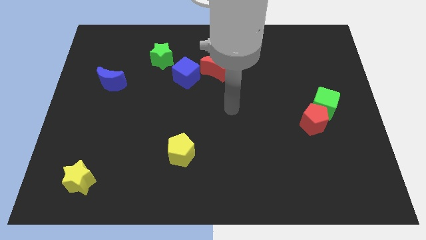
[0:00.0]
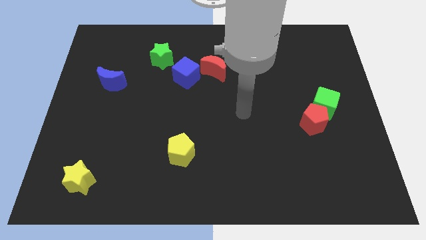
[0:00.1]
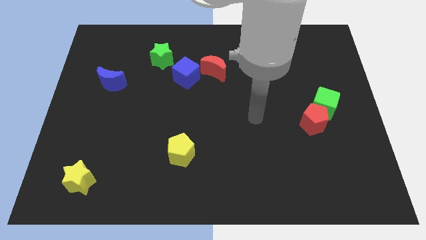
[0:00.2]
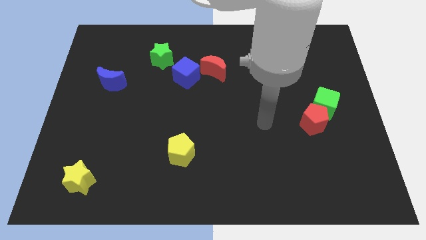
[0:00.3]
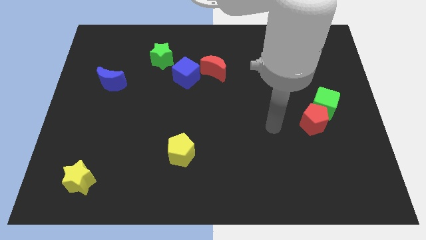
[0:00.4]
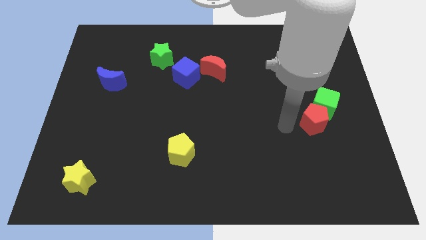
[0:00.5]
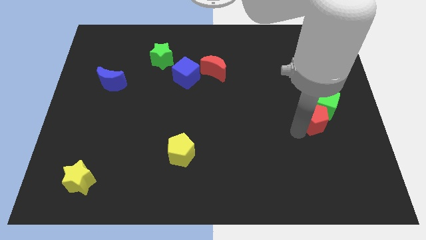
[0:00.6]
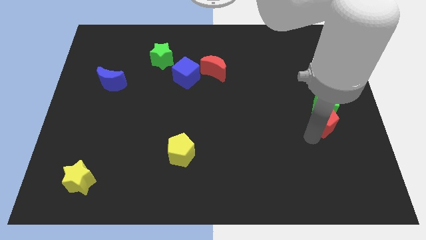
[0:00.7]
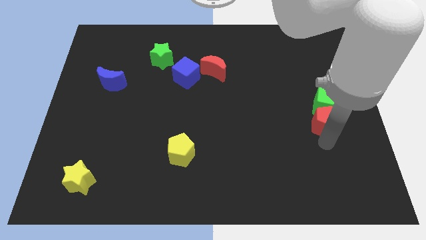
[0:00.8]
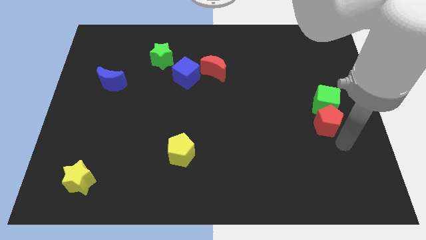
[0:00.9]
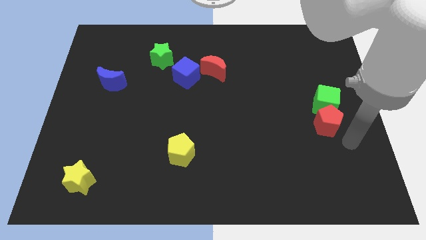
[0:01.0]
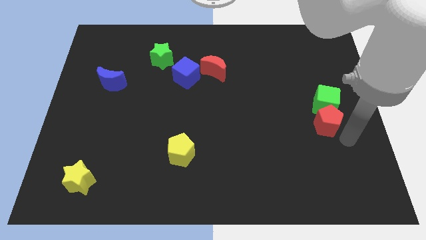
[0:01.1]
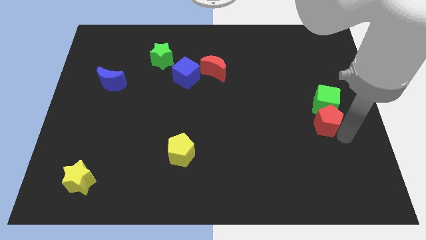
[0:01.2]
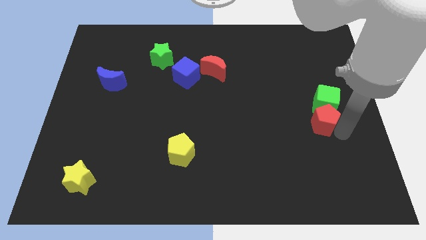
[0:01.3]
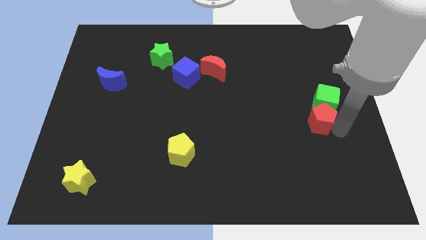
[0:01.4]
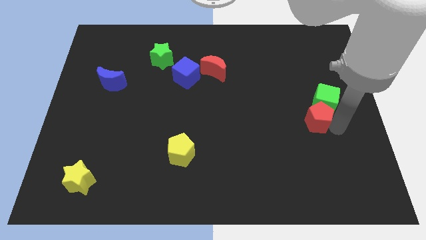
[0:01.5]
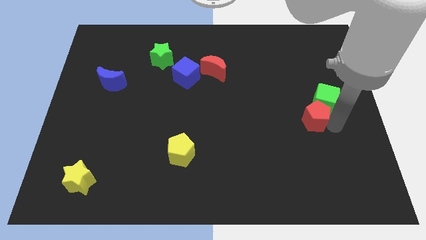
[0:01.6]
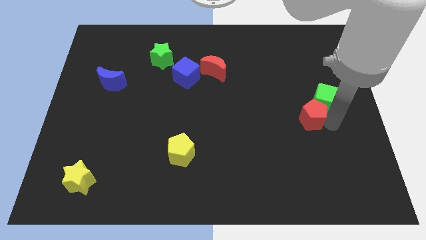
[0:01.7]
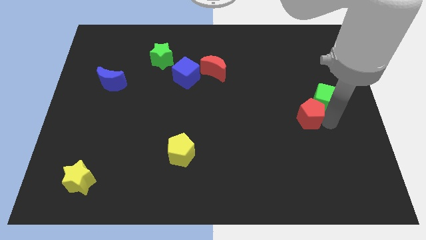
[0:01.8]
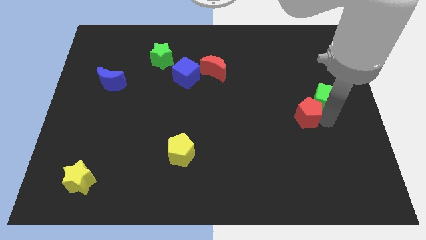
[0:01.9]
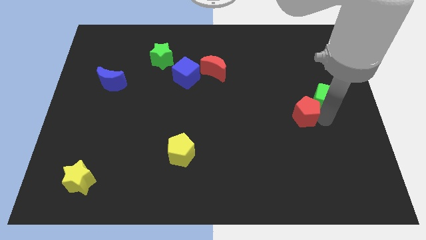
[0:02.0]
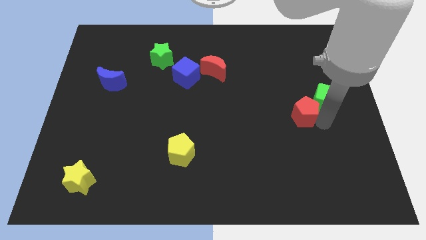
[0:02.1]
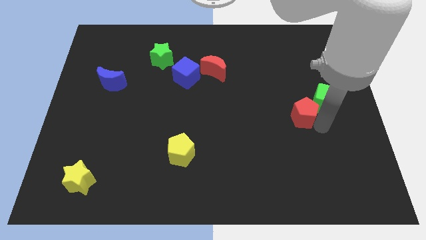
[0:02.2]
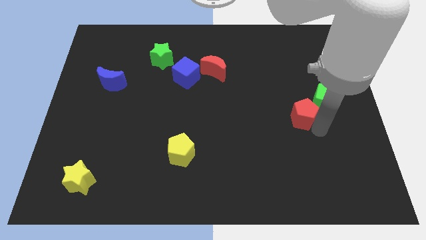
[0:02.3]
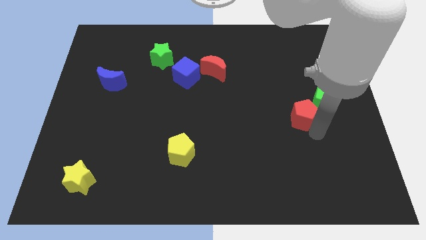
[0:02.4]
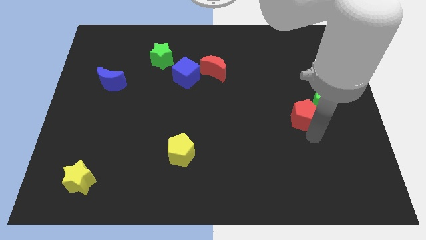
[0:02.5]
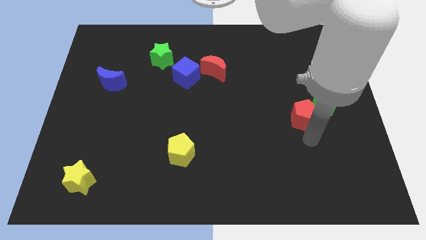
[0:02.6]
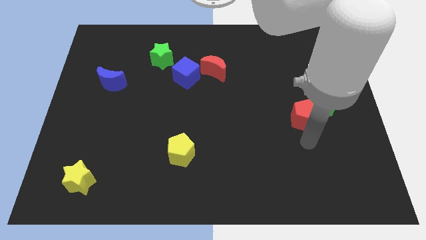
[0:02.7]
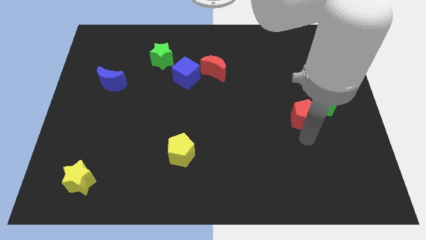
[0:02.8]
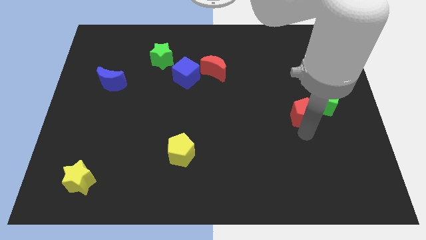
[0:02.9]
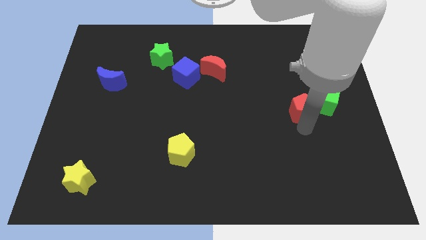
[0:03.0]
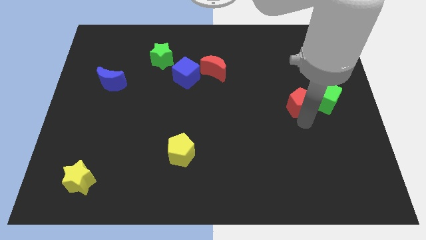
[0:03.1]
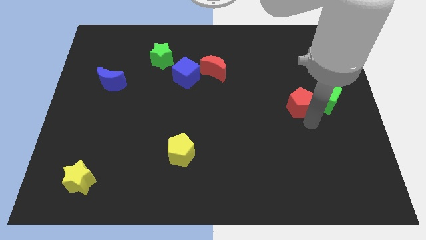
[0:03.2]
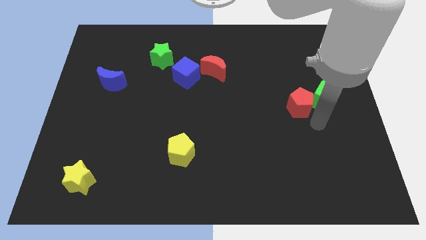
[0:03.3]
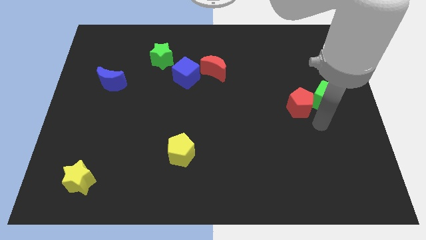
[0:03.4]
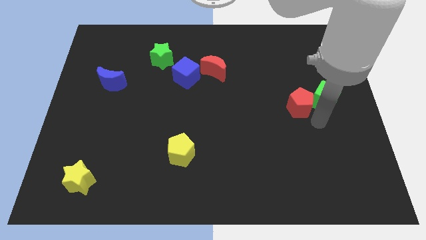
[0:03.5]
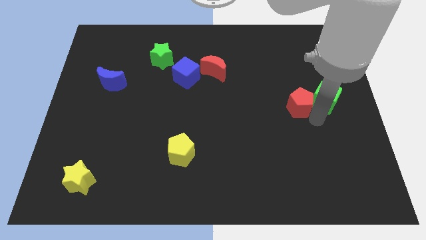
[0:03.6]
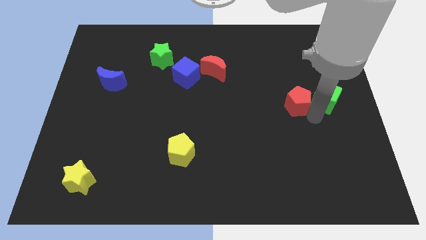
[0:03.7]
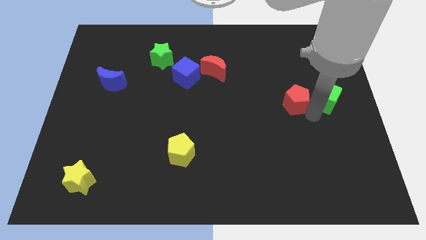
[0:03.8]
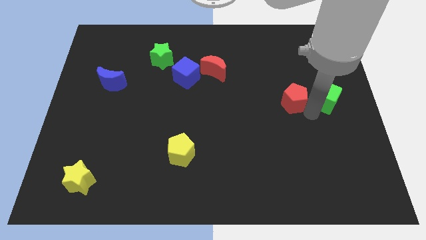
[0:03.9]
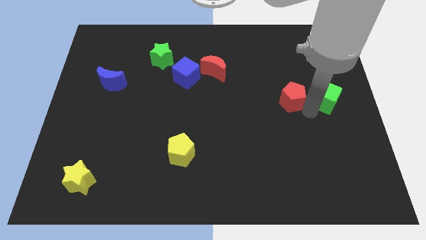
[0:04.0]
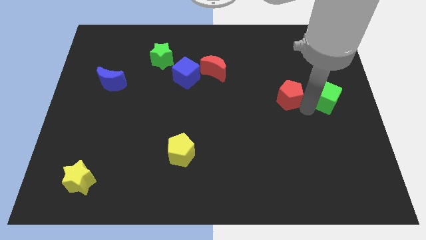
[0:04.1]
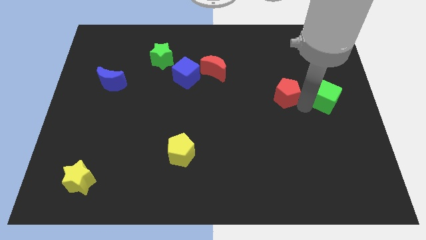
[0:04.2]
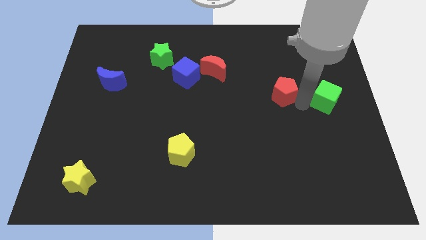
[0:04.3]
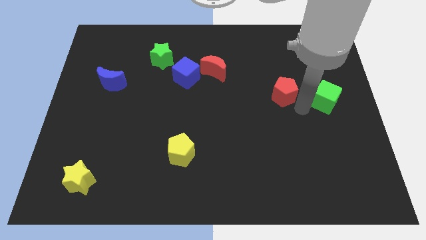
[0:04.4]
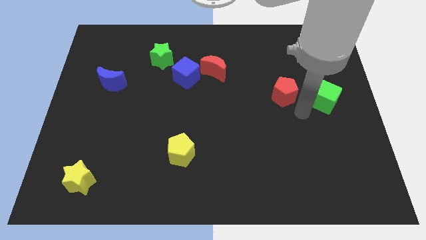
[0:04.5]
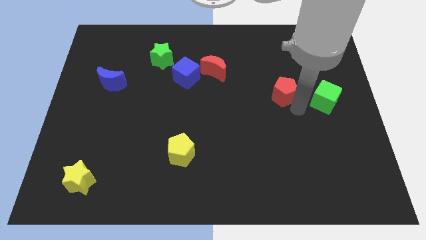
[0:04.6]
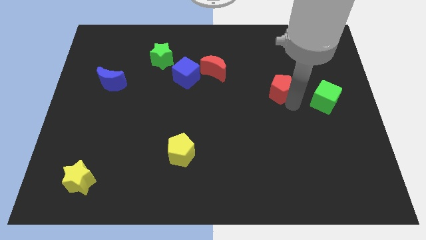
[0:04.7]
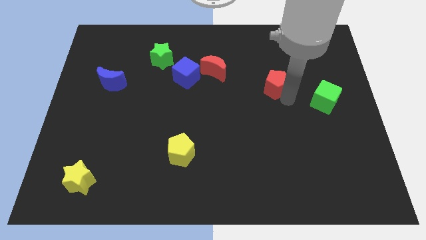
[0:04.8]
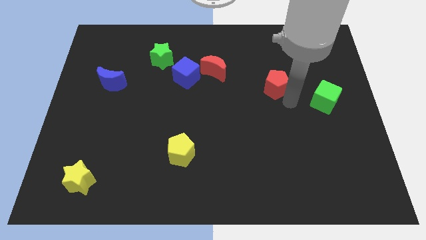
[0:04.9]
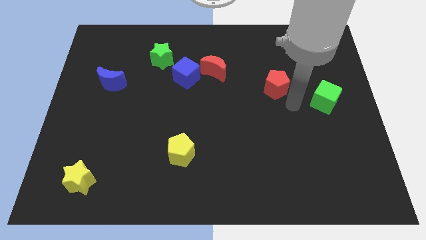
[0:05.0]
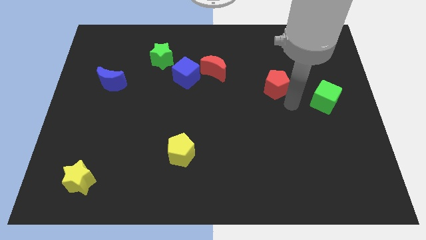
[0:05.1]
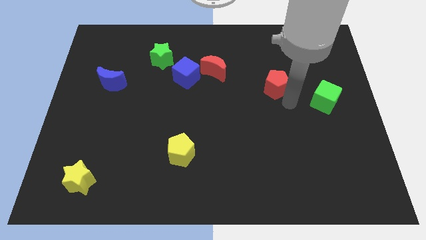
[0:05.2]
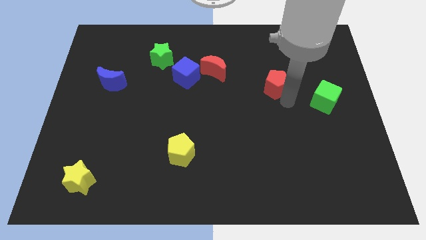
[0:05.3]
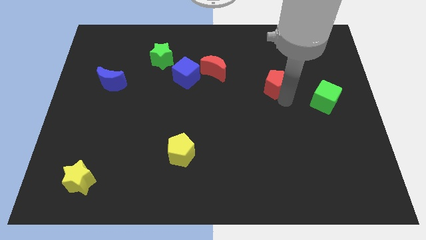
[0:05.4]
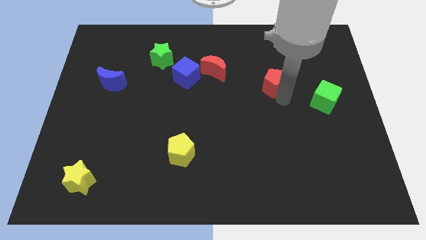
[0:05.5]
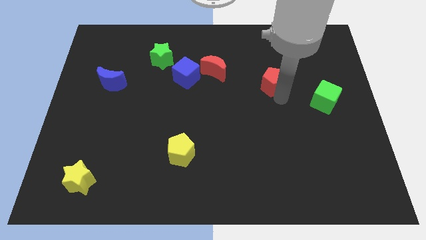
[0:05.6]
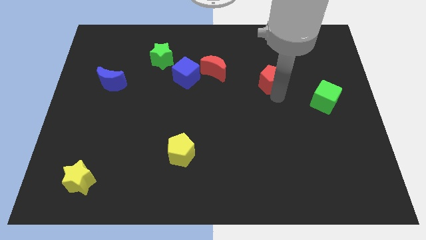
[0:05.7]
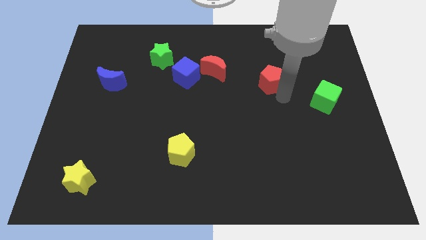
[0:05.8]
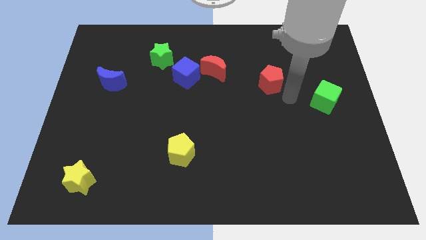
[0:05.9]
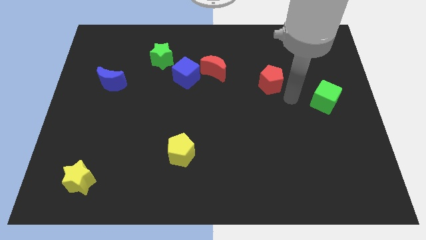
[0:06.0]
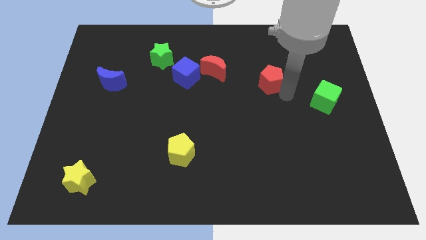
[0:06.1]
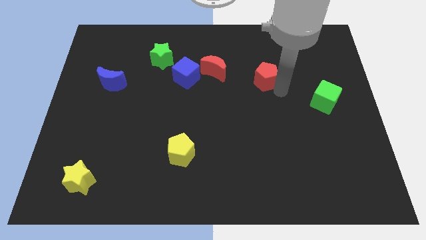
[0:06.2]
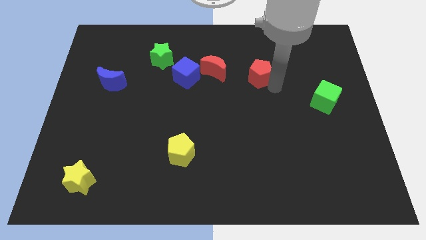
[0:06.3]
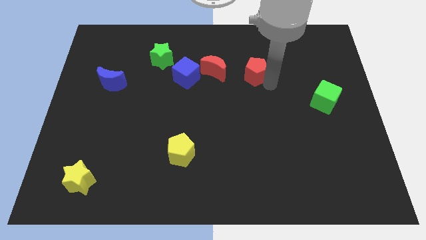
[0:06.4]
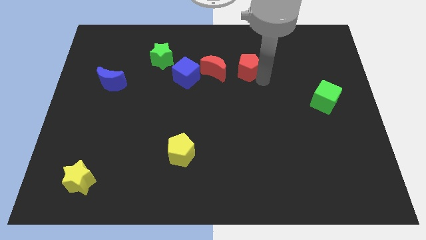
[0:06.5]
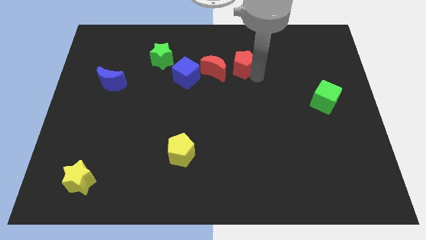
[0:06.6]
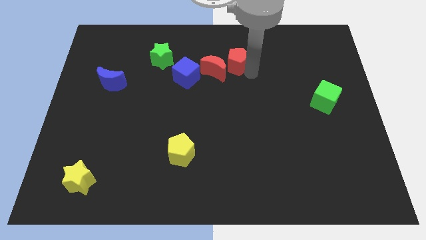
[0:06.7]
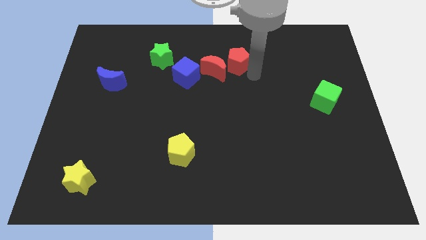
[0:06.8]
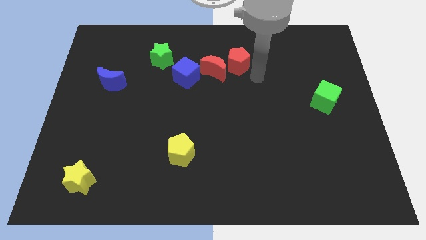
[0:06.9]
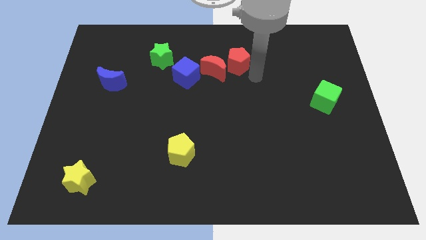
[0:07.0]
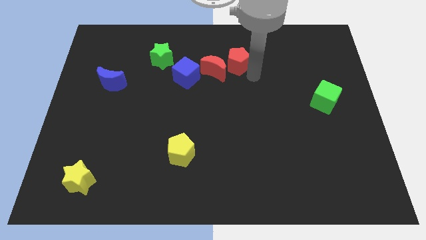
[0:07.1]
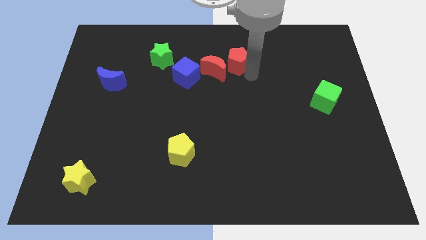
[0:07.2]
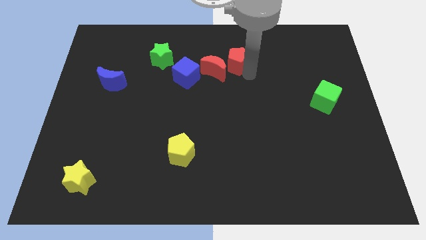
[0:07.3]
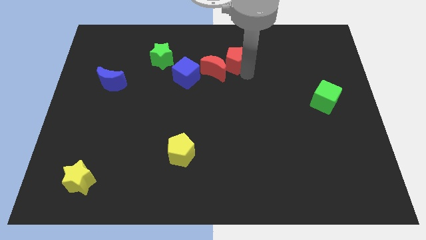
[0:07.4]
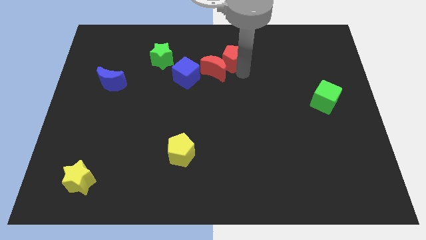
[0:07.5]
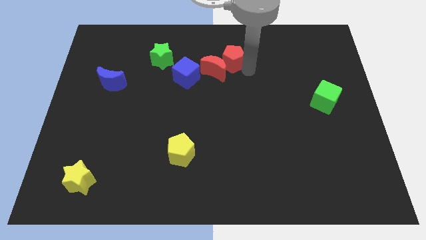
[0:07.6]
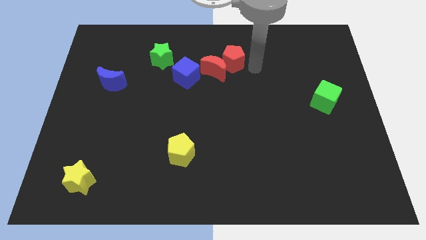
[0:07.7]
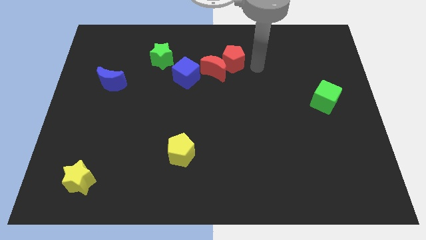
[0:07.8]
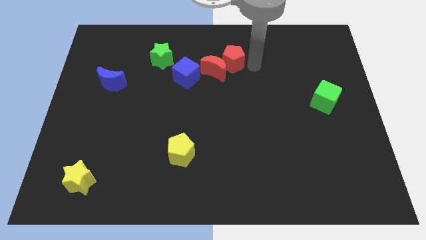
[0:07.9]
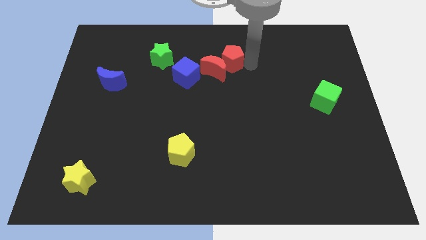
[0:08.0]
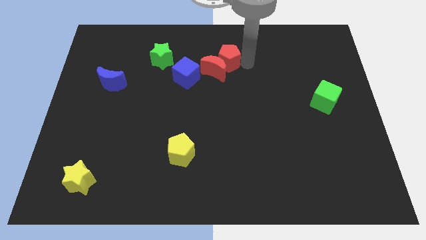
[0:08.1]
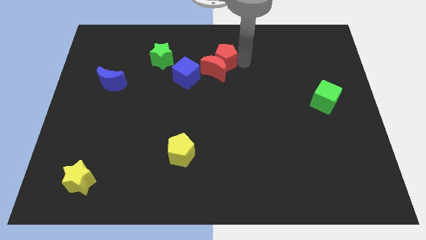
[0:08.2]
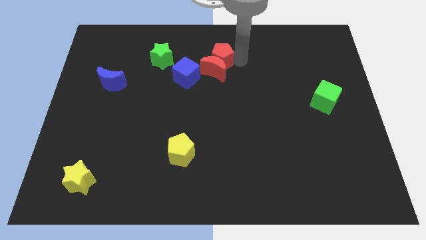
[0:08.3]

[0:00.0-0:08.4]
move the red pentagon to the top left of the red moon

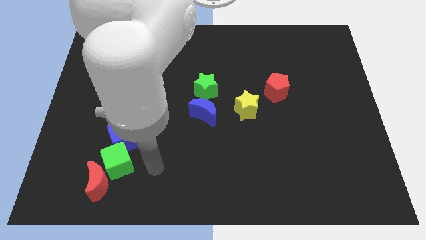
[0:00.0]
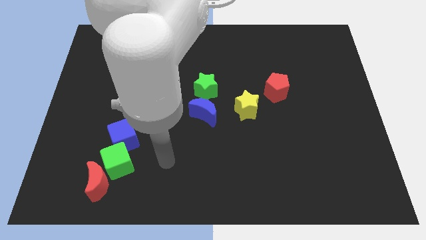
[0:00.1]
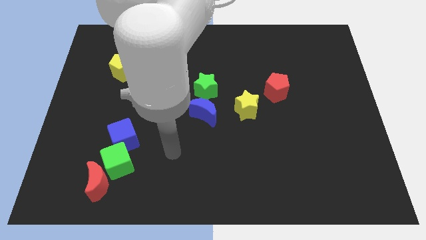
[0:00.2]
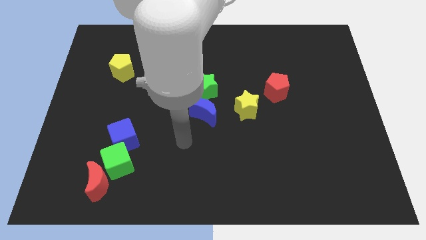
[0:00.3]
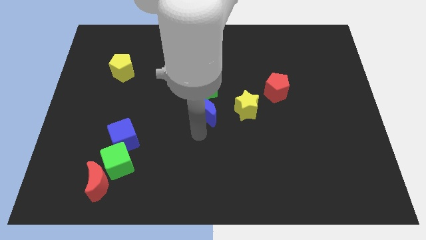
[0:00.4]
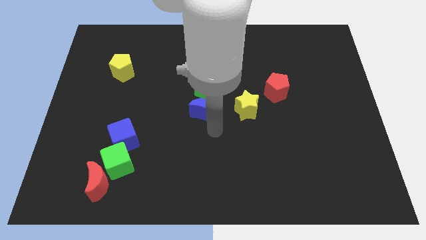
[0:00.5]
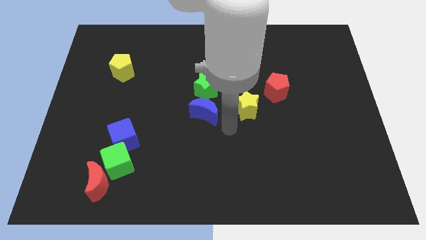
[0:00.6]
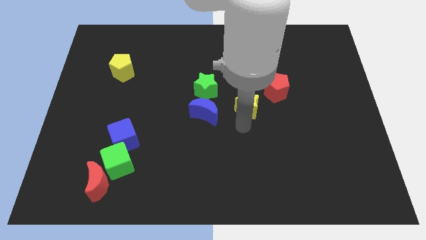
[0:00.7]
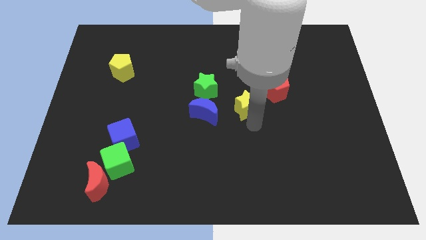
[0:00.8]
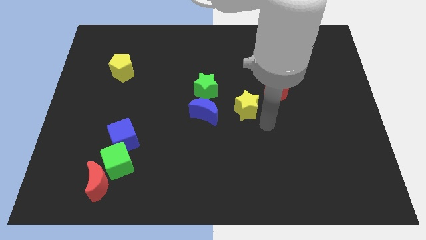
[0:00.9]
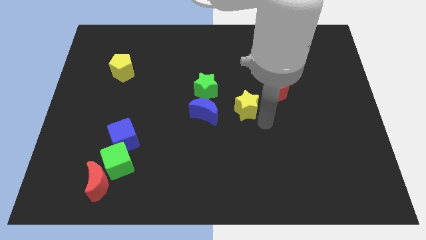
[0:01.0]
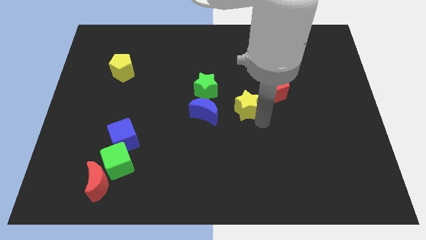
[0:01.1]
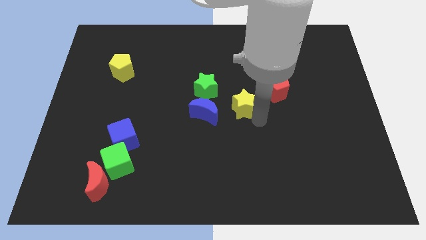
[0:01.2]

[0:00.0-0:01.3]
slide the yellow star diagonally up and to the right of the blue moon
